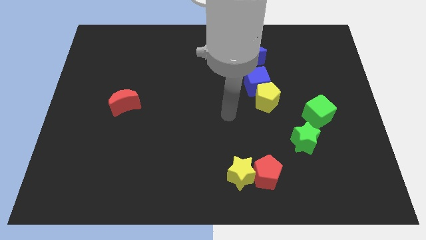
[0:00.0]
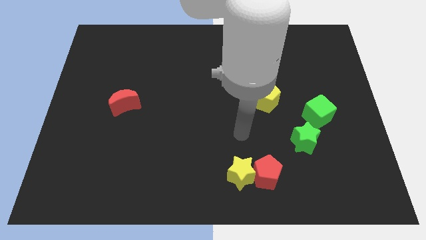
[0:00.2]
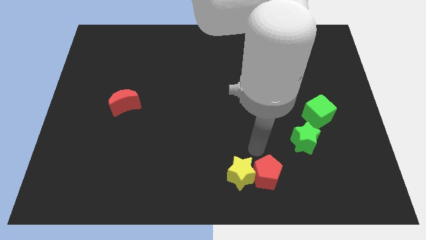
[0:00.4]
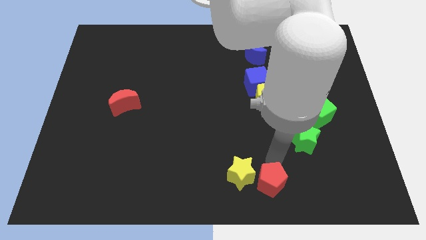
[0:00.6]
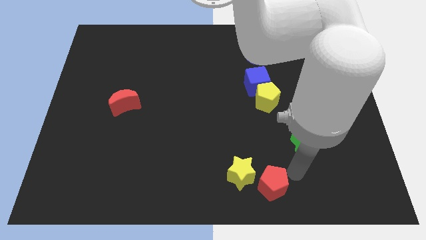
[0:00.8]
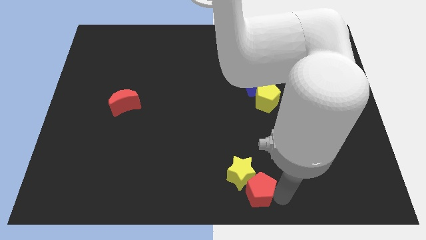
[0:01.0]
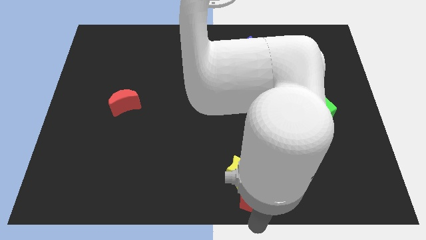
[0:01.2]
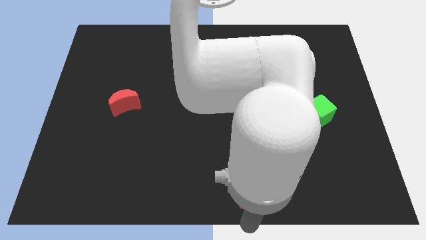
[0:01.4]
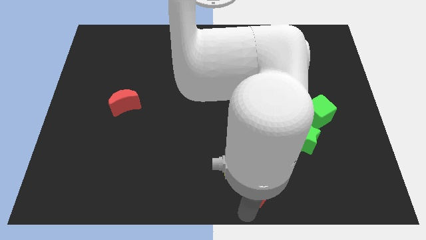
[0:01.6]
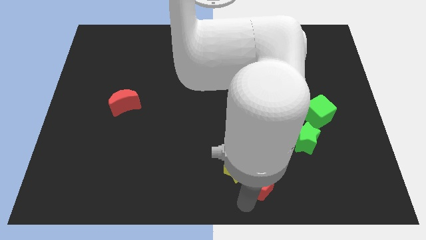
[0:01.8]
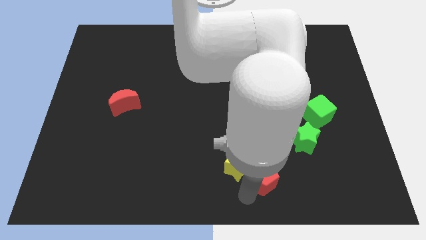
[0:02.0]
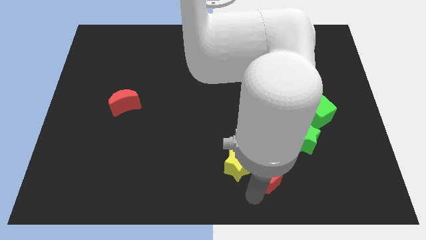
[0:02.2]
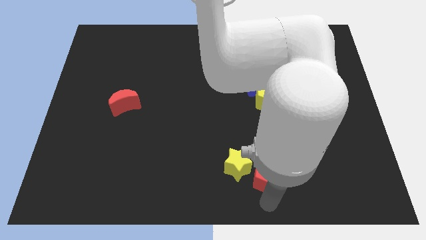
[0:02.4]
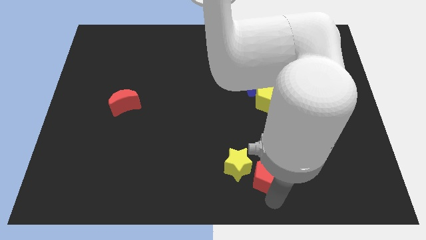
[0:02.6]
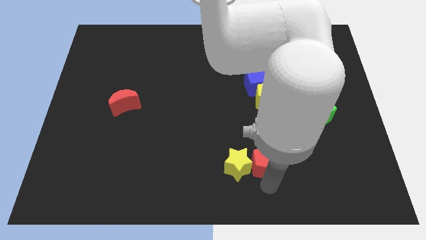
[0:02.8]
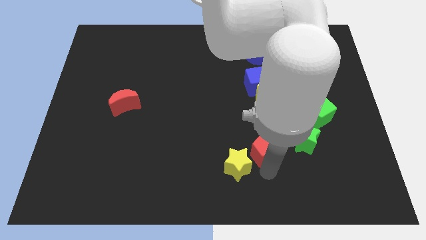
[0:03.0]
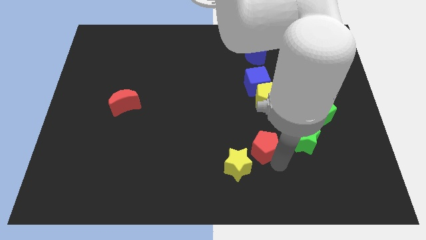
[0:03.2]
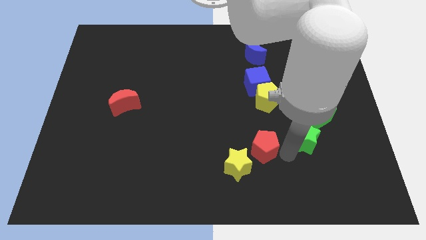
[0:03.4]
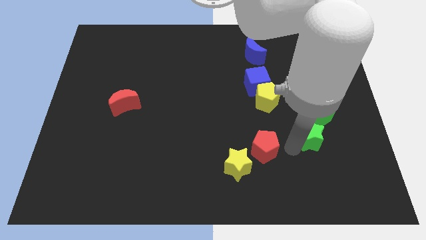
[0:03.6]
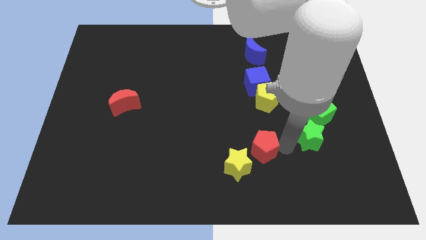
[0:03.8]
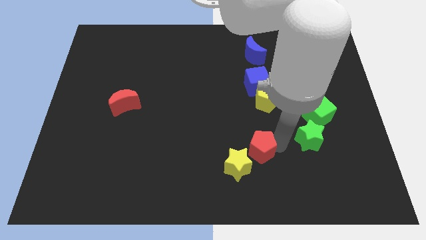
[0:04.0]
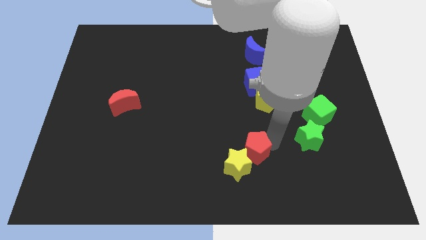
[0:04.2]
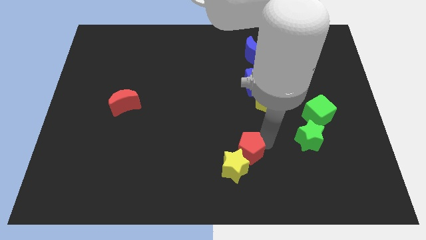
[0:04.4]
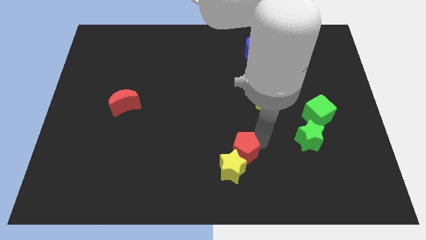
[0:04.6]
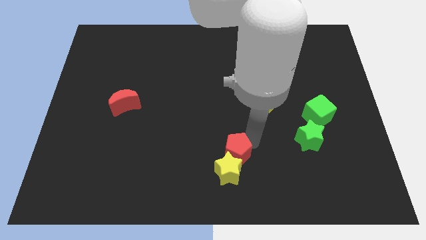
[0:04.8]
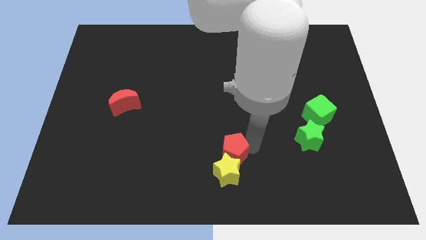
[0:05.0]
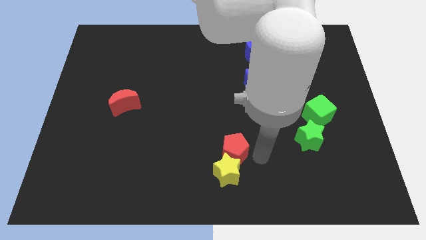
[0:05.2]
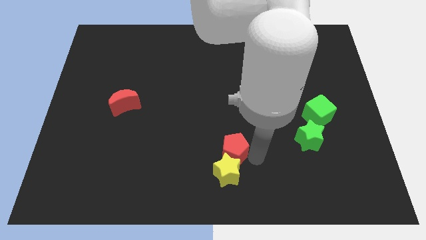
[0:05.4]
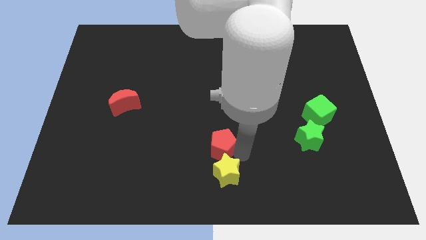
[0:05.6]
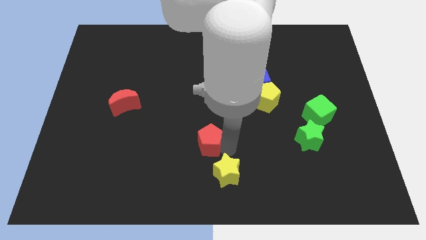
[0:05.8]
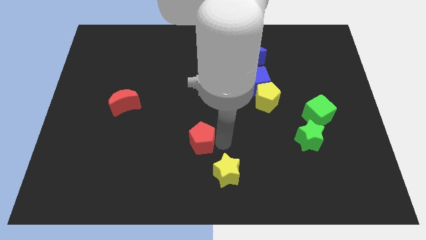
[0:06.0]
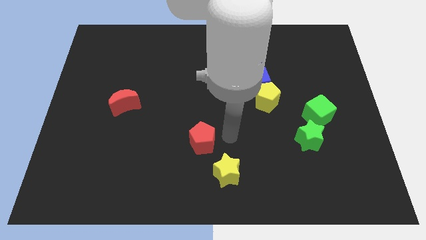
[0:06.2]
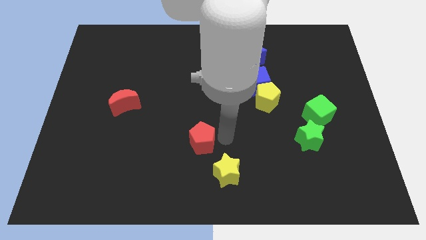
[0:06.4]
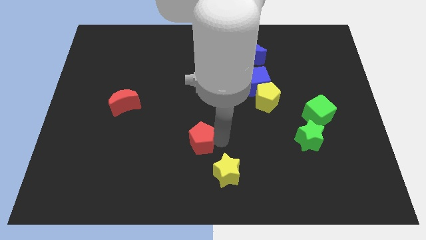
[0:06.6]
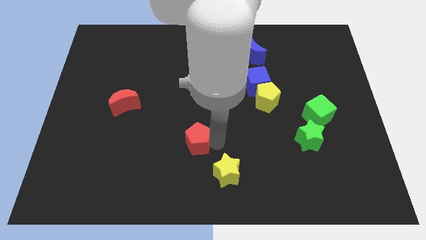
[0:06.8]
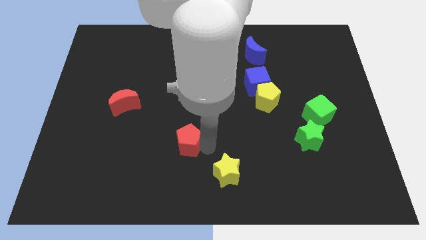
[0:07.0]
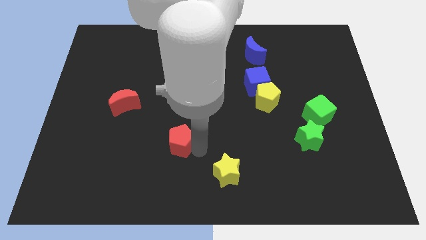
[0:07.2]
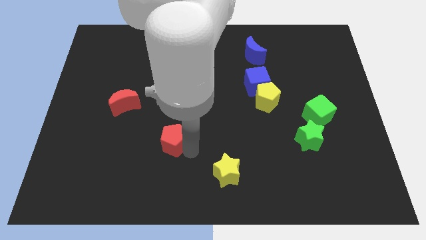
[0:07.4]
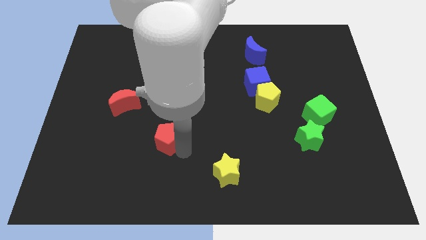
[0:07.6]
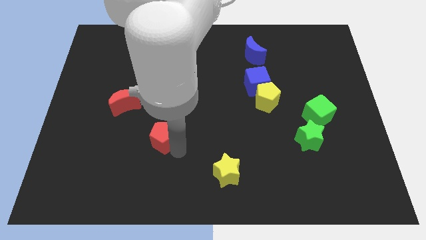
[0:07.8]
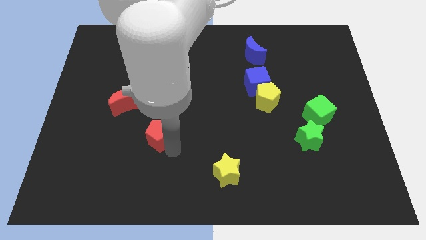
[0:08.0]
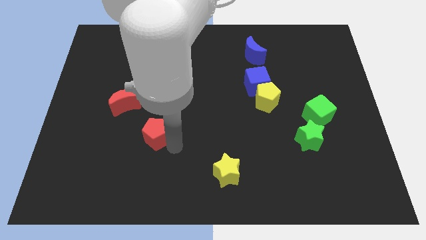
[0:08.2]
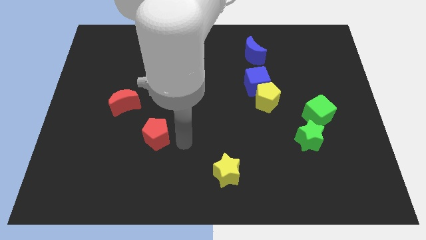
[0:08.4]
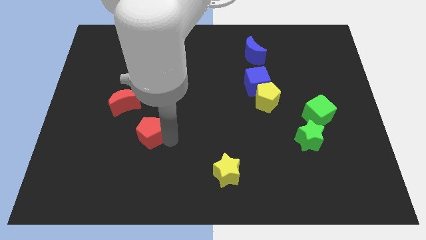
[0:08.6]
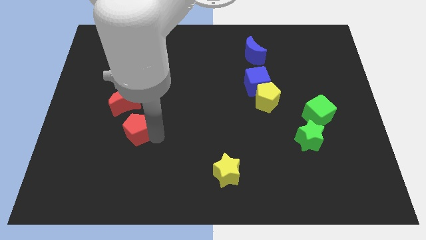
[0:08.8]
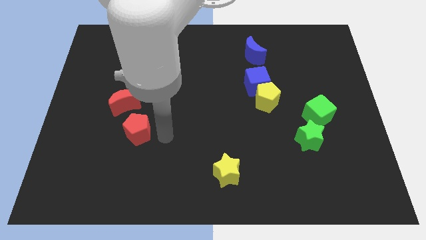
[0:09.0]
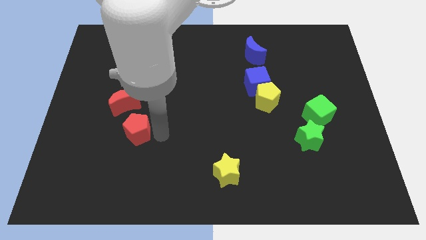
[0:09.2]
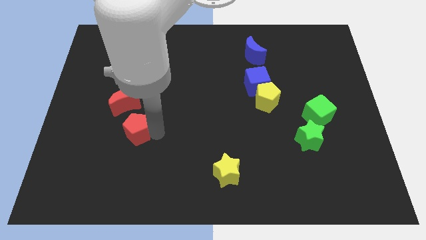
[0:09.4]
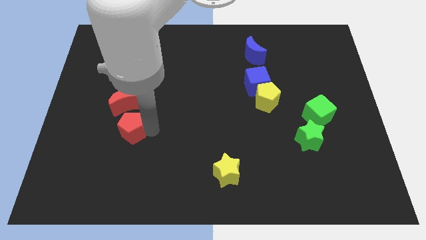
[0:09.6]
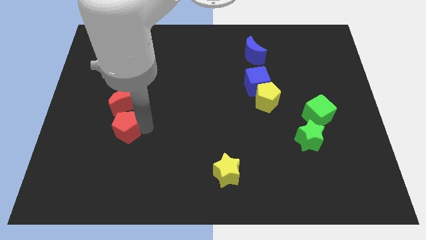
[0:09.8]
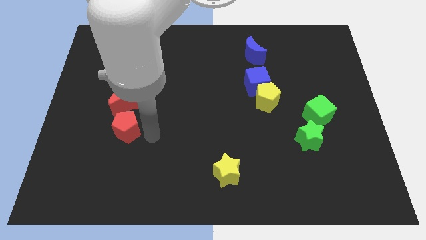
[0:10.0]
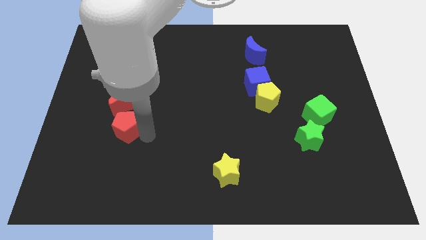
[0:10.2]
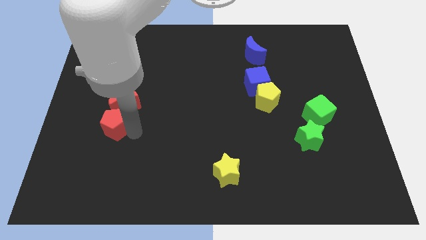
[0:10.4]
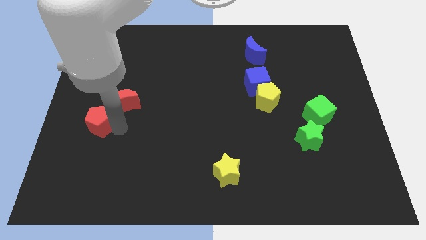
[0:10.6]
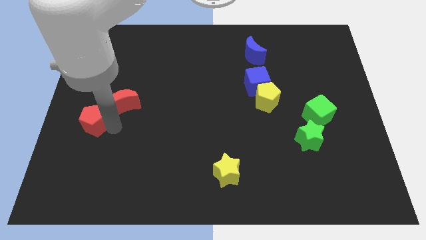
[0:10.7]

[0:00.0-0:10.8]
slide the red pentagon to the center left

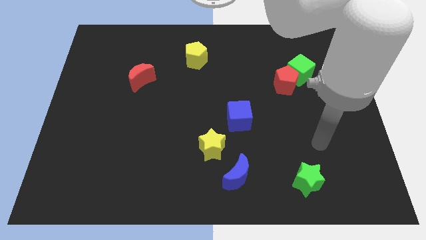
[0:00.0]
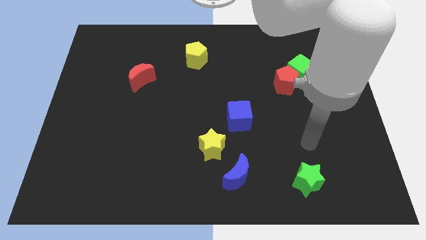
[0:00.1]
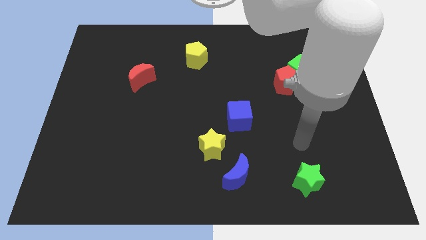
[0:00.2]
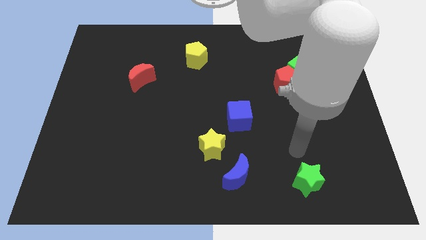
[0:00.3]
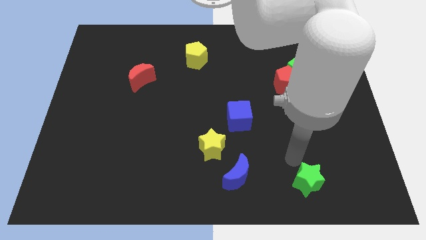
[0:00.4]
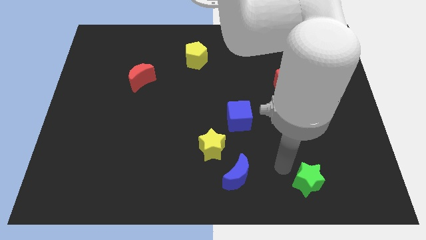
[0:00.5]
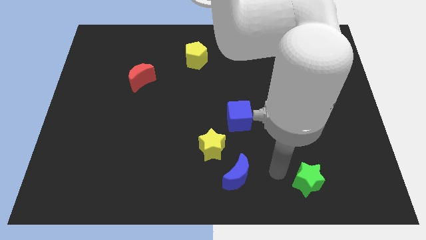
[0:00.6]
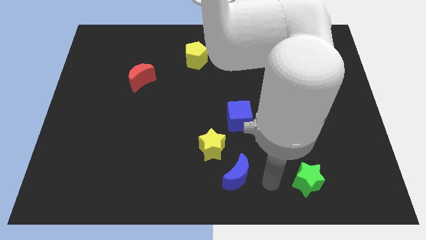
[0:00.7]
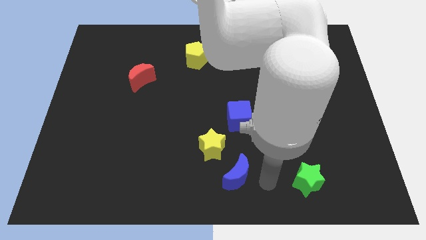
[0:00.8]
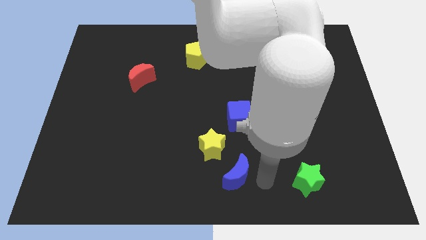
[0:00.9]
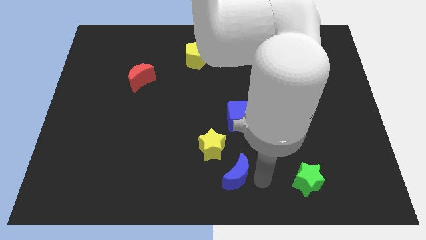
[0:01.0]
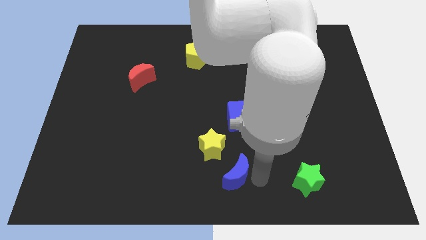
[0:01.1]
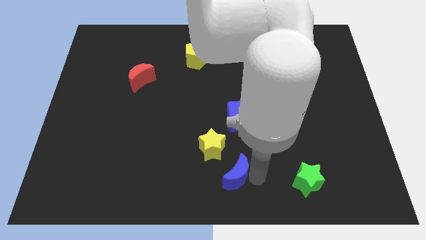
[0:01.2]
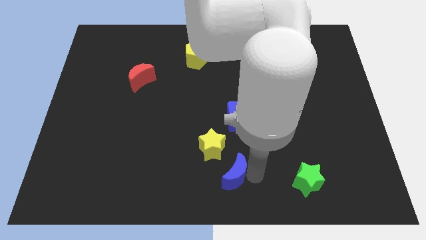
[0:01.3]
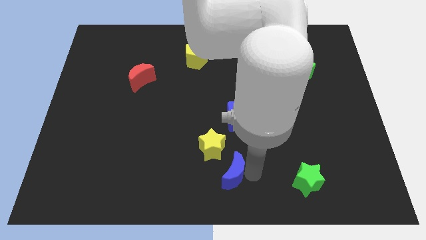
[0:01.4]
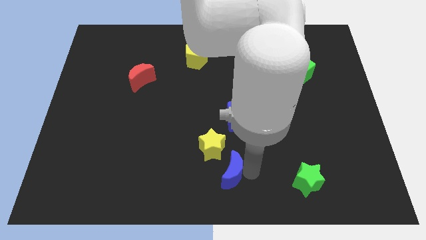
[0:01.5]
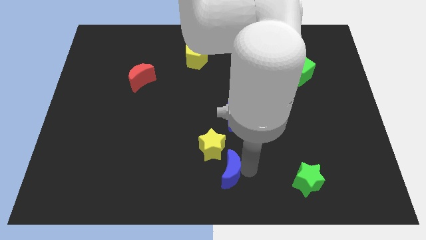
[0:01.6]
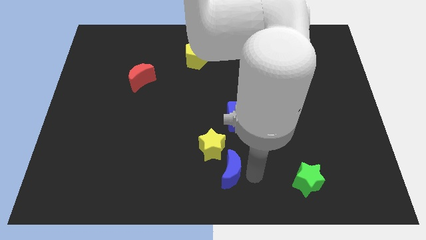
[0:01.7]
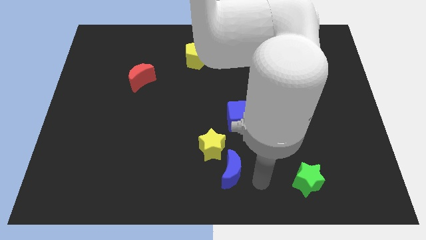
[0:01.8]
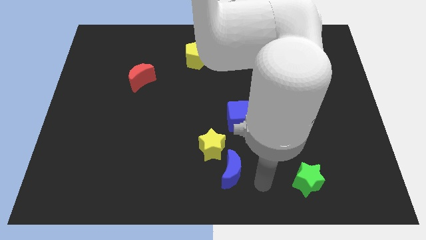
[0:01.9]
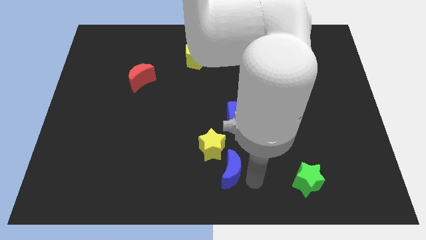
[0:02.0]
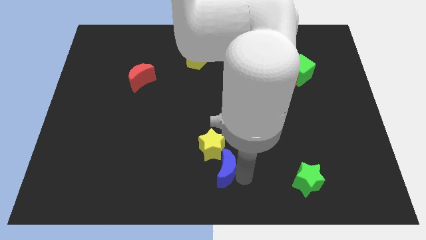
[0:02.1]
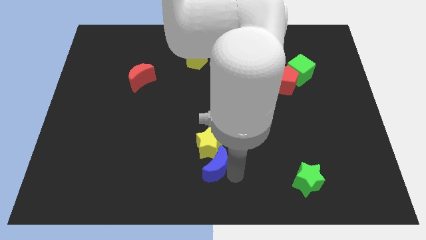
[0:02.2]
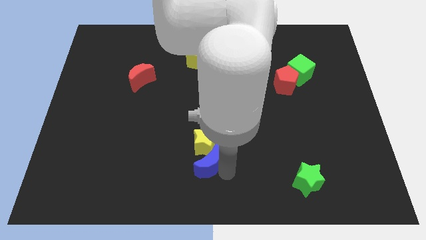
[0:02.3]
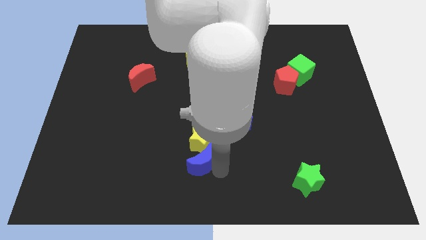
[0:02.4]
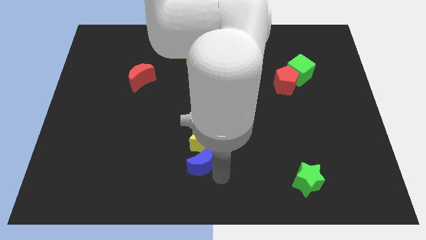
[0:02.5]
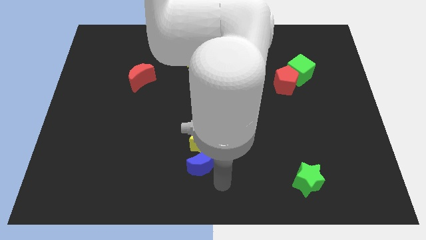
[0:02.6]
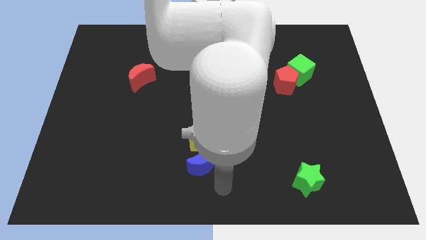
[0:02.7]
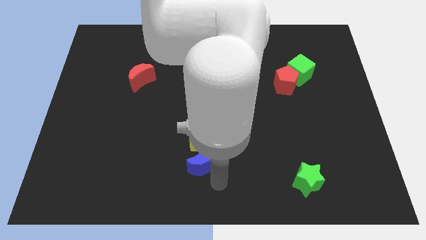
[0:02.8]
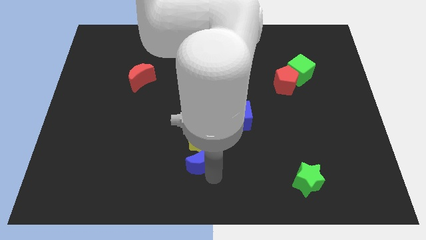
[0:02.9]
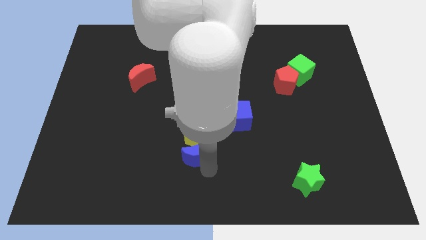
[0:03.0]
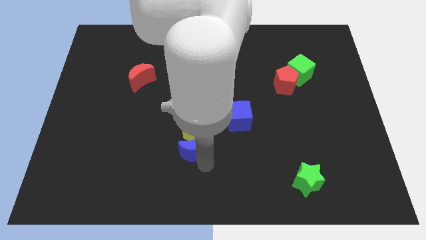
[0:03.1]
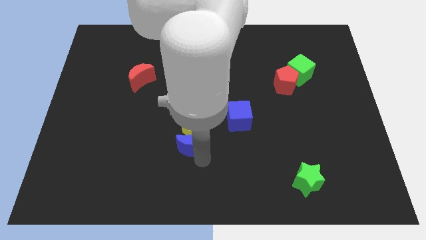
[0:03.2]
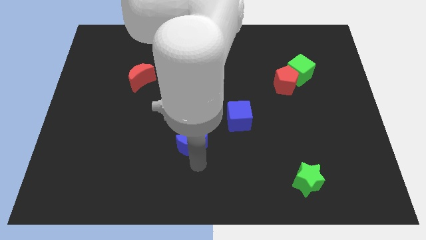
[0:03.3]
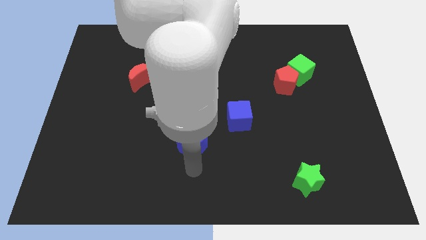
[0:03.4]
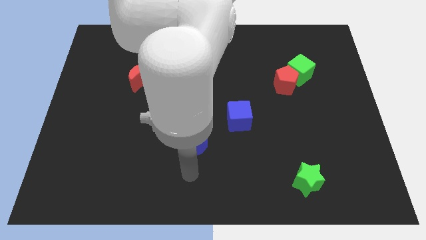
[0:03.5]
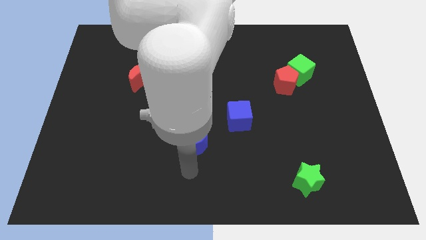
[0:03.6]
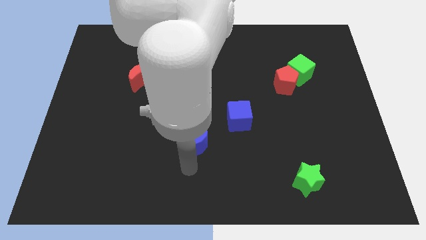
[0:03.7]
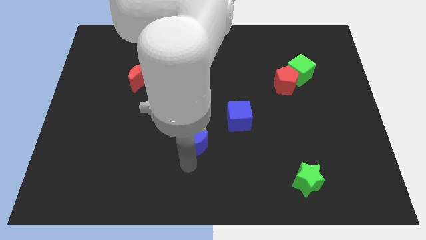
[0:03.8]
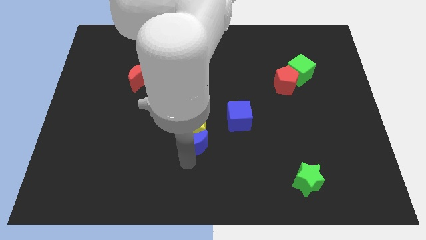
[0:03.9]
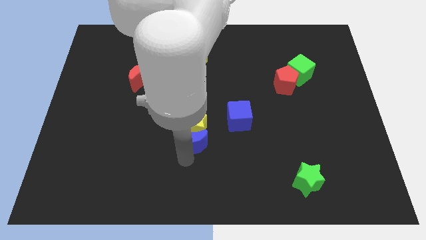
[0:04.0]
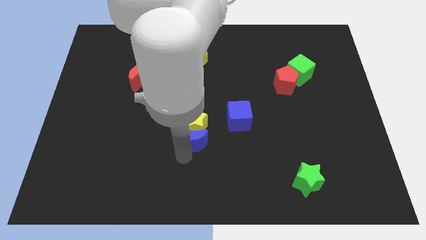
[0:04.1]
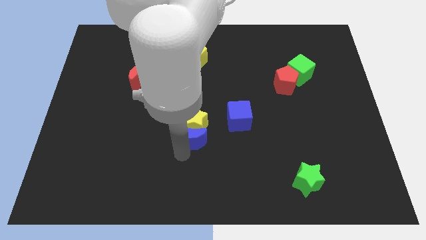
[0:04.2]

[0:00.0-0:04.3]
push the blue moon to the middle of the board
